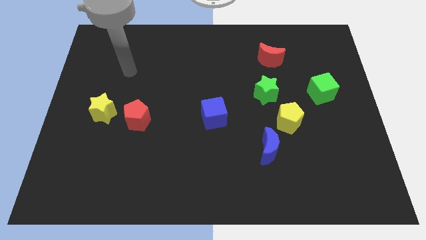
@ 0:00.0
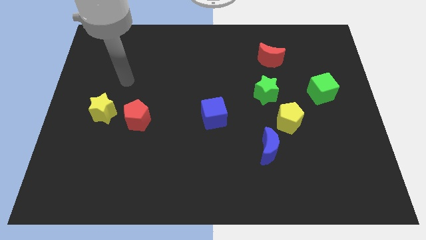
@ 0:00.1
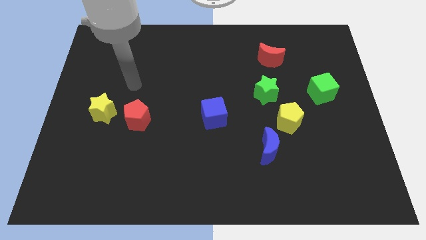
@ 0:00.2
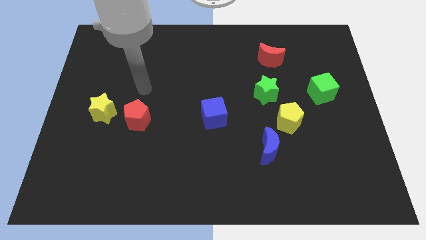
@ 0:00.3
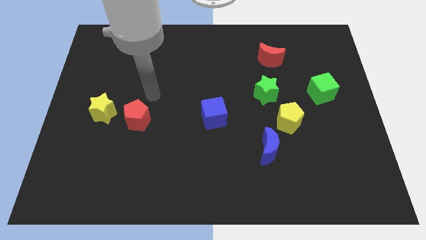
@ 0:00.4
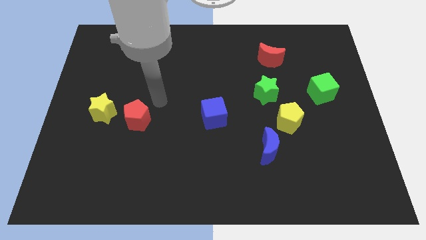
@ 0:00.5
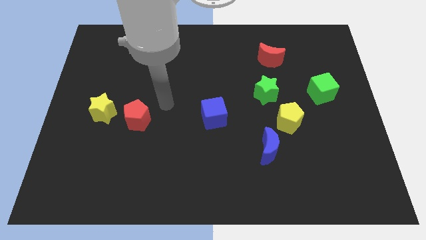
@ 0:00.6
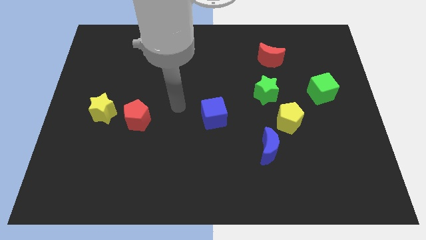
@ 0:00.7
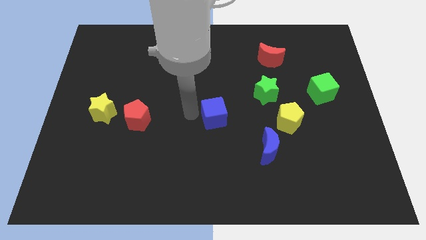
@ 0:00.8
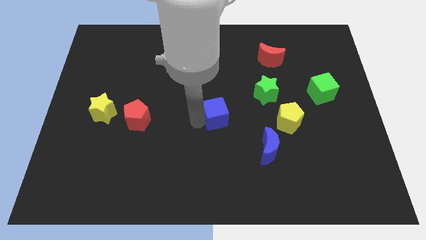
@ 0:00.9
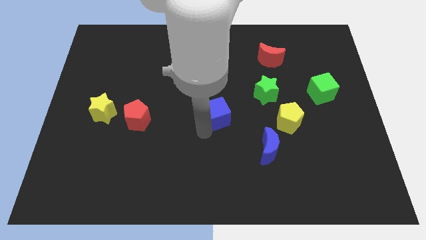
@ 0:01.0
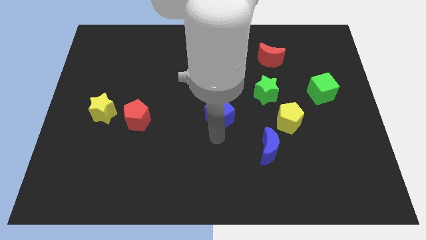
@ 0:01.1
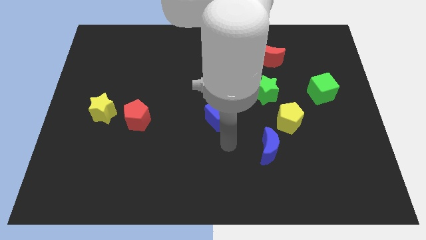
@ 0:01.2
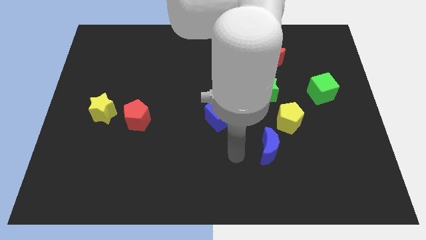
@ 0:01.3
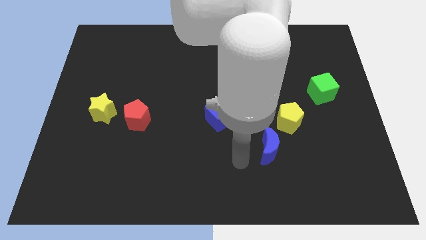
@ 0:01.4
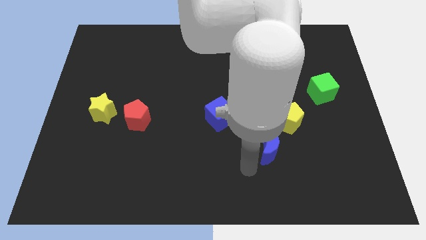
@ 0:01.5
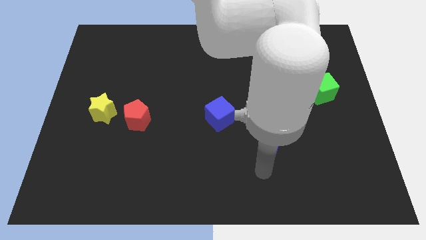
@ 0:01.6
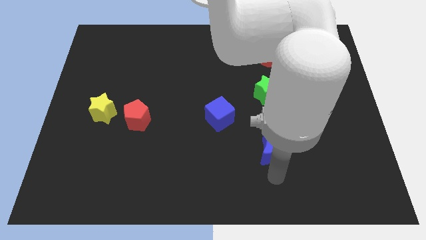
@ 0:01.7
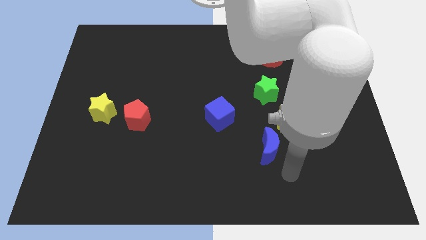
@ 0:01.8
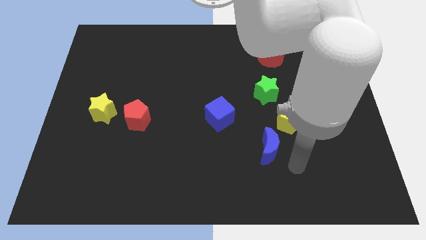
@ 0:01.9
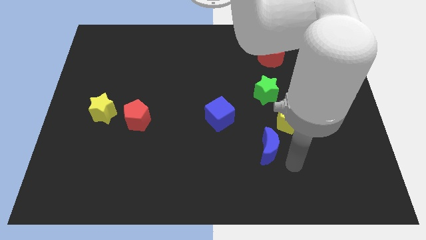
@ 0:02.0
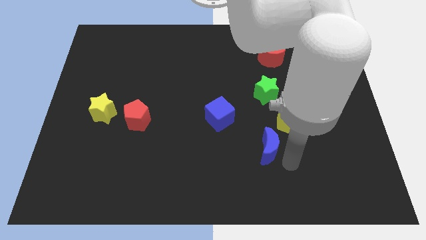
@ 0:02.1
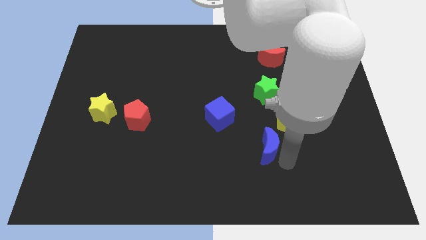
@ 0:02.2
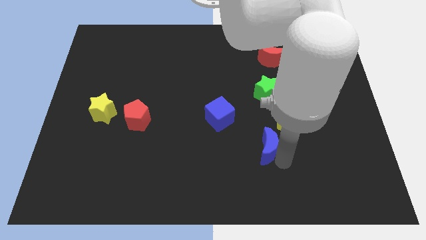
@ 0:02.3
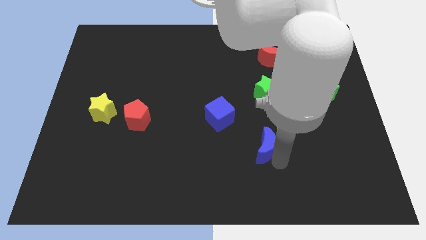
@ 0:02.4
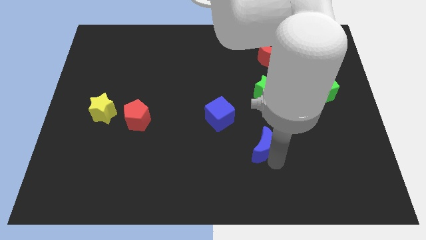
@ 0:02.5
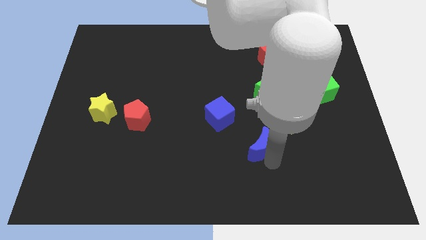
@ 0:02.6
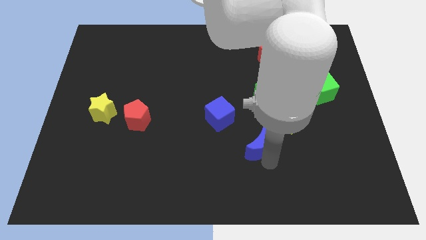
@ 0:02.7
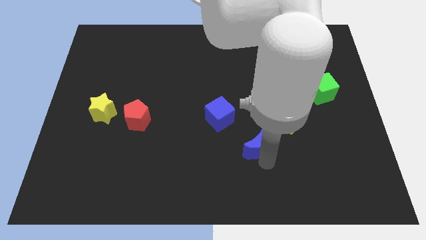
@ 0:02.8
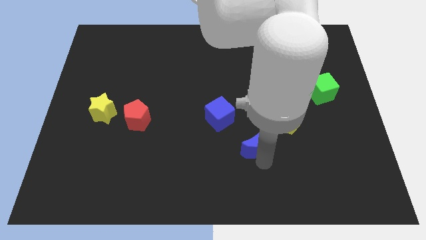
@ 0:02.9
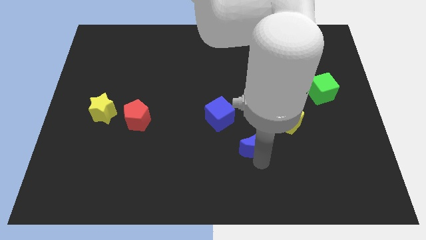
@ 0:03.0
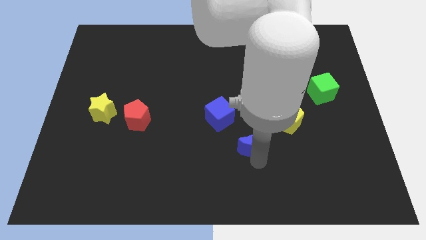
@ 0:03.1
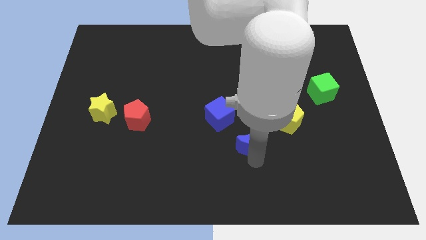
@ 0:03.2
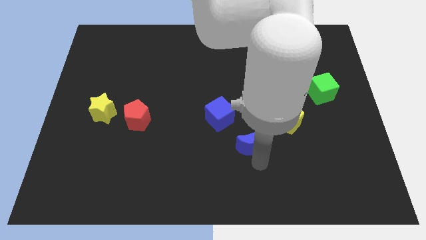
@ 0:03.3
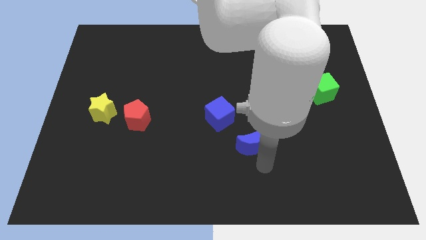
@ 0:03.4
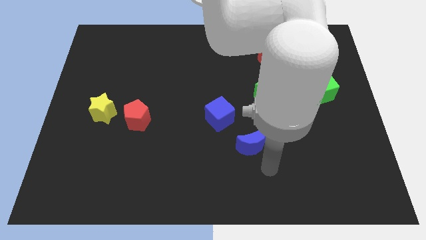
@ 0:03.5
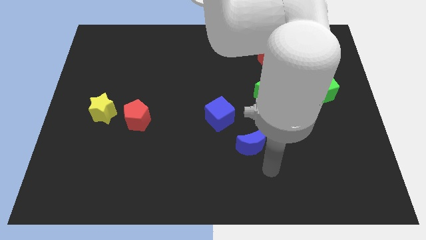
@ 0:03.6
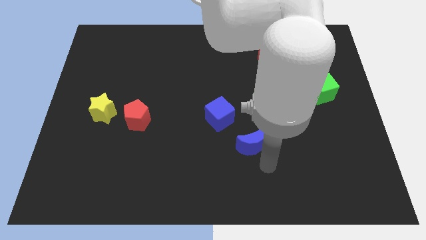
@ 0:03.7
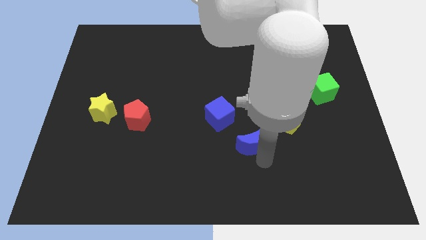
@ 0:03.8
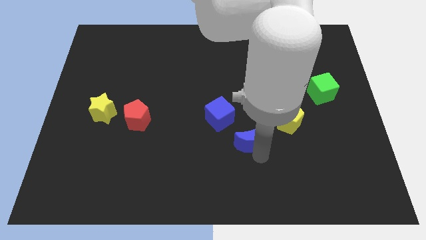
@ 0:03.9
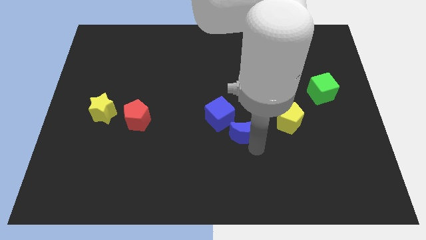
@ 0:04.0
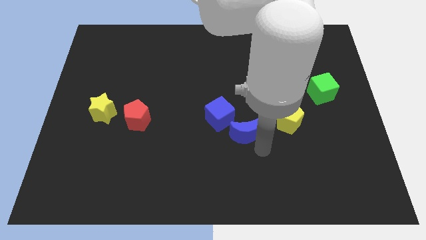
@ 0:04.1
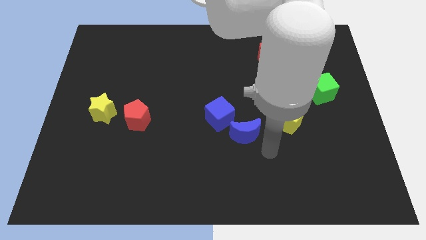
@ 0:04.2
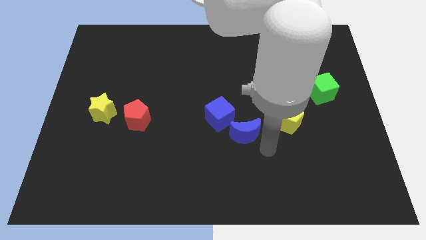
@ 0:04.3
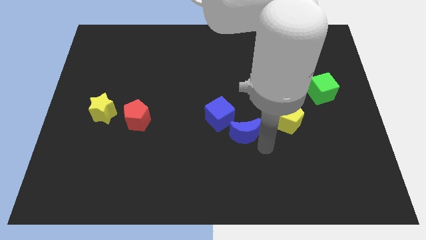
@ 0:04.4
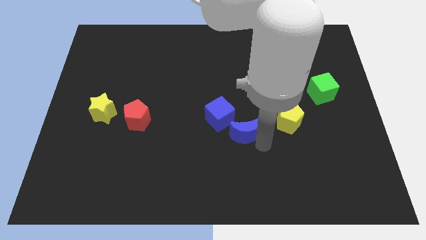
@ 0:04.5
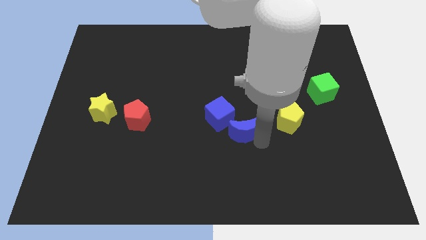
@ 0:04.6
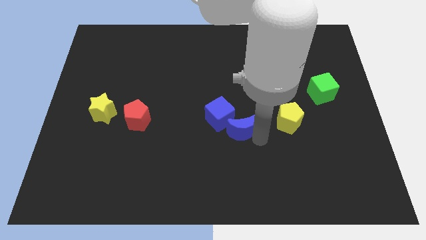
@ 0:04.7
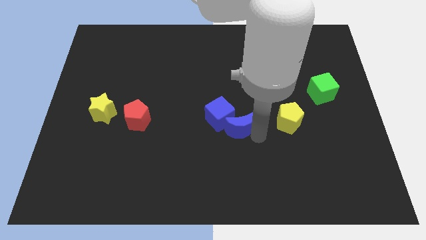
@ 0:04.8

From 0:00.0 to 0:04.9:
slide the blue moon next to the blue cube

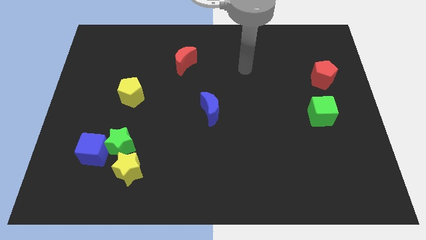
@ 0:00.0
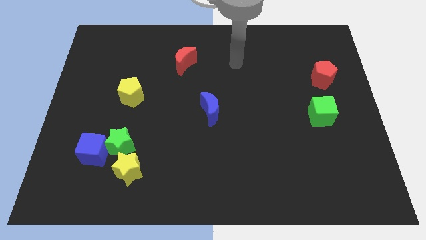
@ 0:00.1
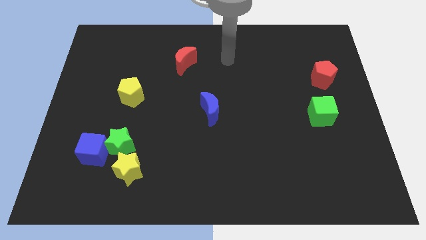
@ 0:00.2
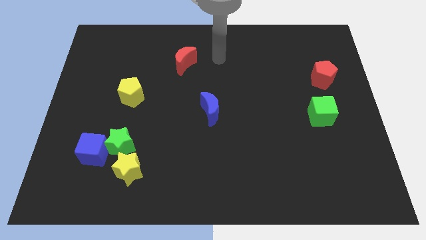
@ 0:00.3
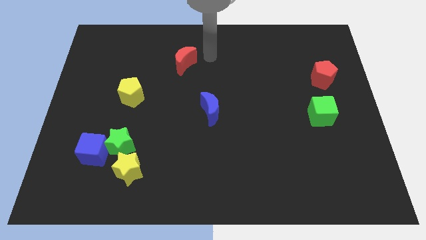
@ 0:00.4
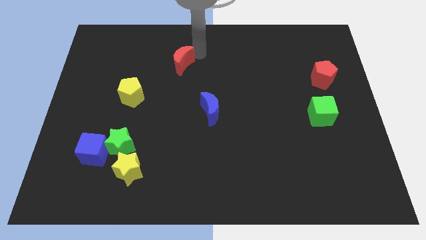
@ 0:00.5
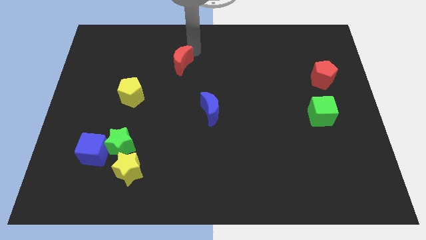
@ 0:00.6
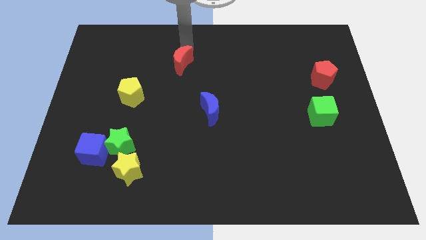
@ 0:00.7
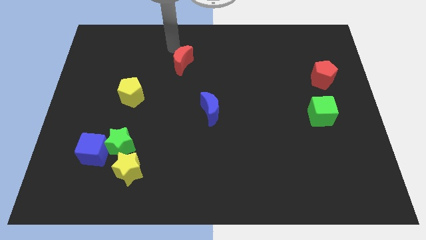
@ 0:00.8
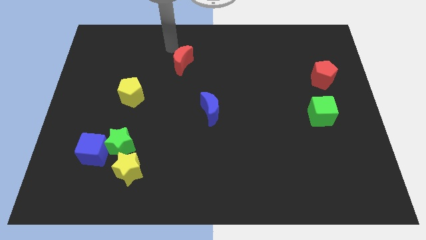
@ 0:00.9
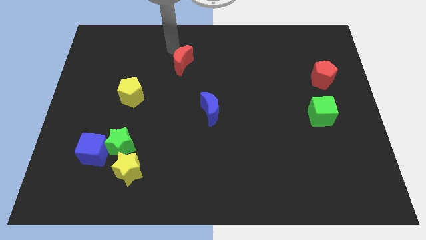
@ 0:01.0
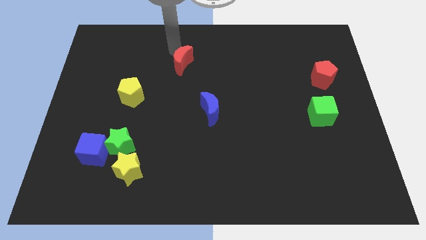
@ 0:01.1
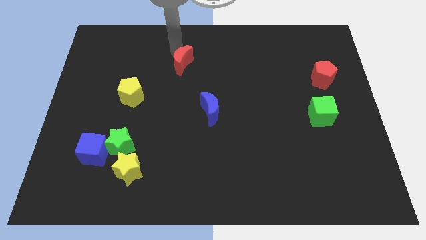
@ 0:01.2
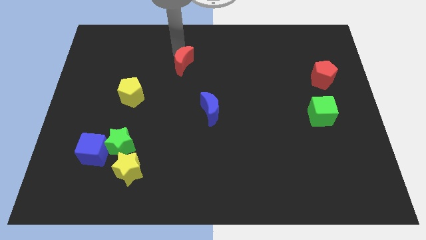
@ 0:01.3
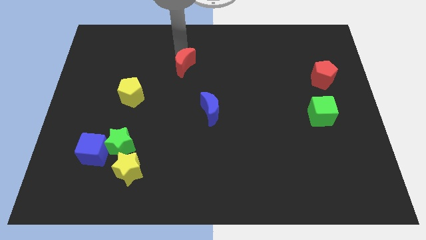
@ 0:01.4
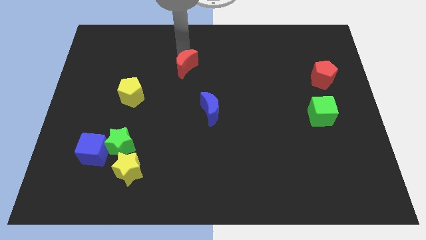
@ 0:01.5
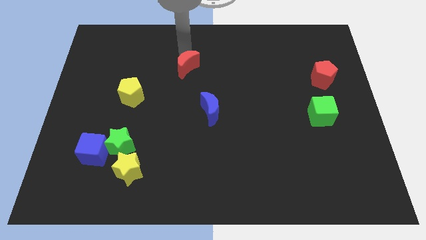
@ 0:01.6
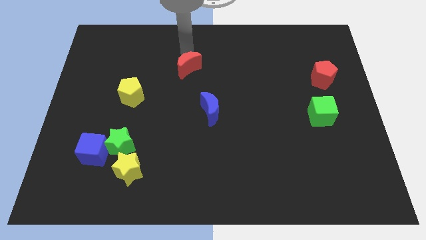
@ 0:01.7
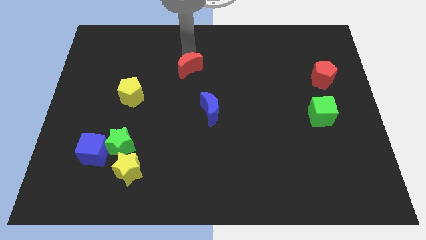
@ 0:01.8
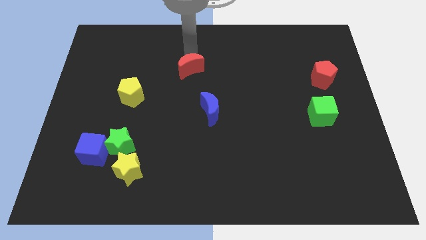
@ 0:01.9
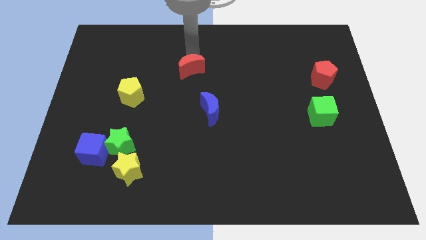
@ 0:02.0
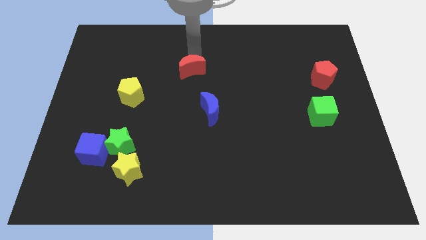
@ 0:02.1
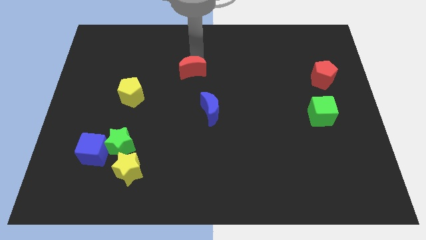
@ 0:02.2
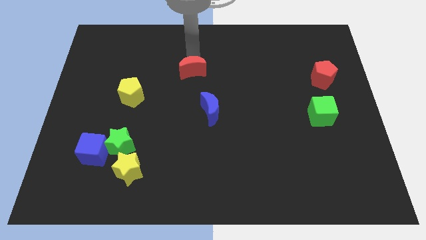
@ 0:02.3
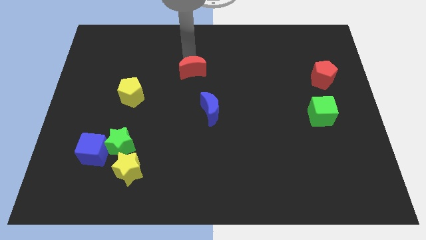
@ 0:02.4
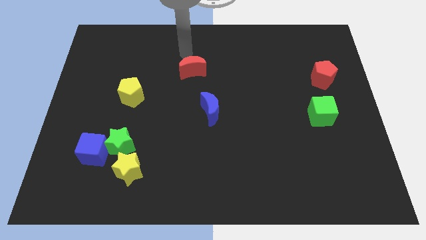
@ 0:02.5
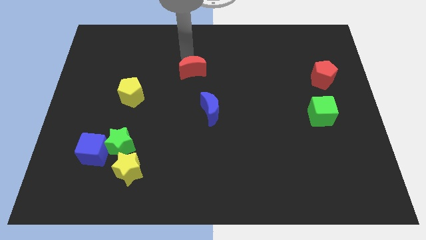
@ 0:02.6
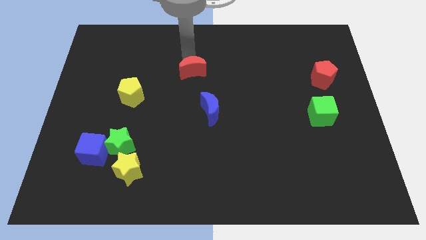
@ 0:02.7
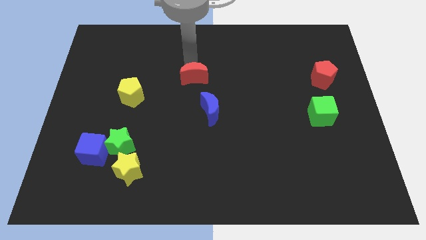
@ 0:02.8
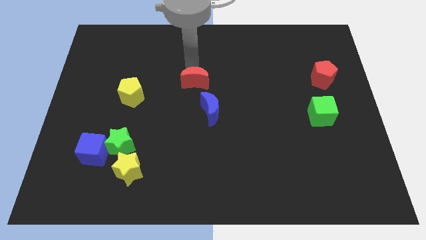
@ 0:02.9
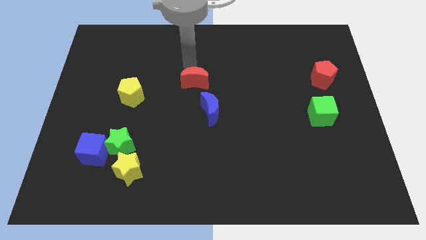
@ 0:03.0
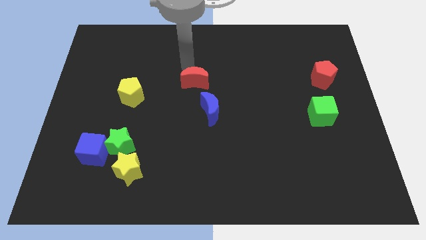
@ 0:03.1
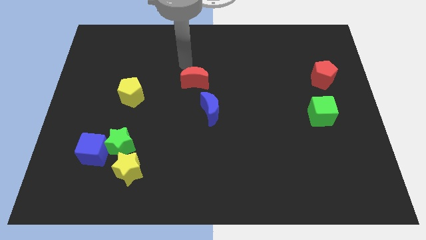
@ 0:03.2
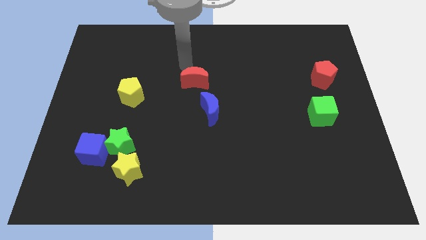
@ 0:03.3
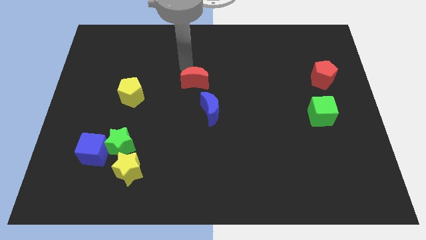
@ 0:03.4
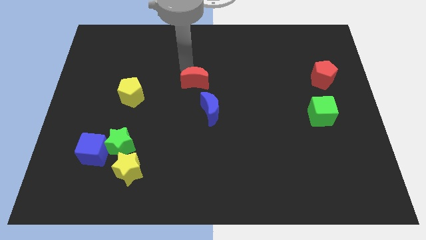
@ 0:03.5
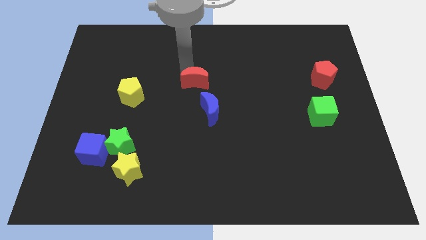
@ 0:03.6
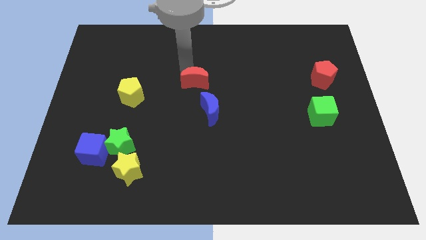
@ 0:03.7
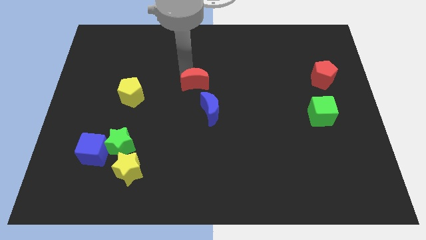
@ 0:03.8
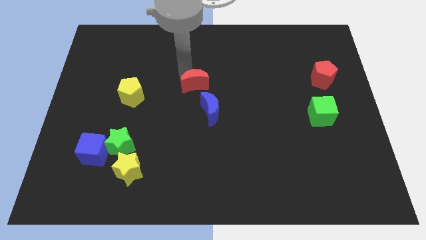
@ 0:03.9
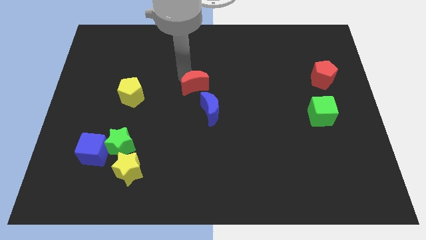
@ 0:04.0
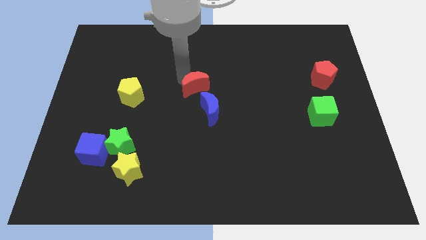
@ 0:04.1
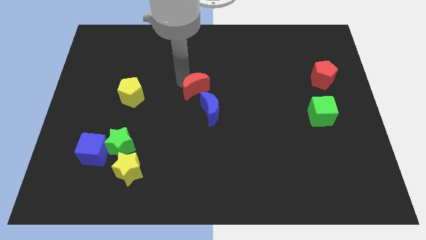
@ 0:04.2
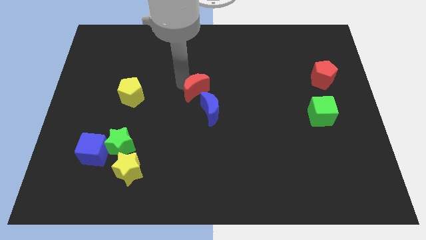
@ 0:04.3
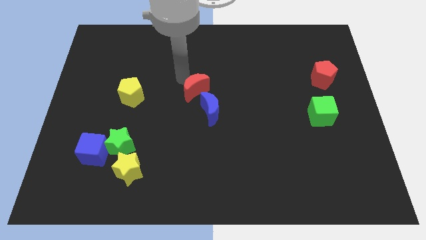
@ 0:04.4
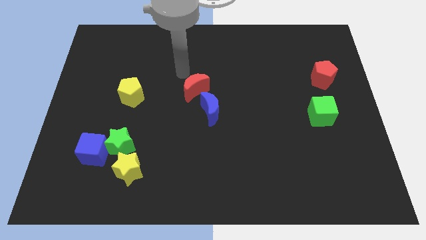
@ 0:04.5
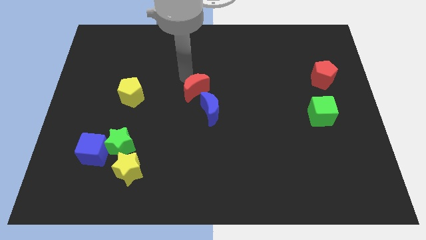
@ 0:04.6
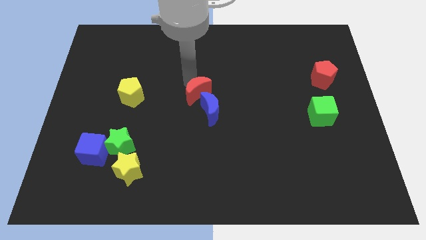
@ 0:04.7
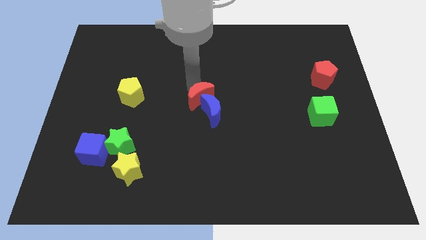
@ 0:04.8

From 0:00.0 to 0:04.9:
push the red moon to the blue moon
